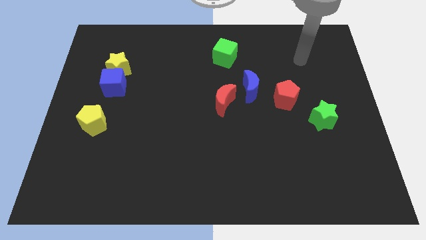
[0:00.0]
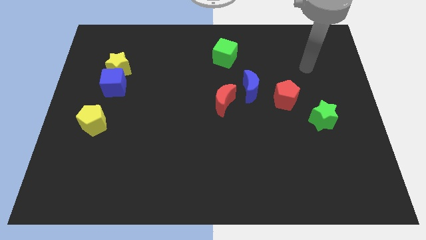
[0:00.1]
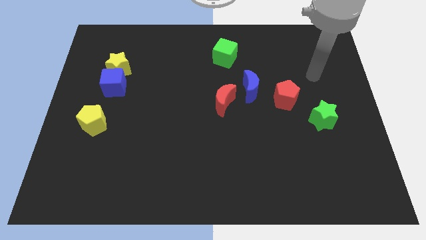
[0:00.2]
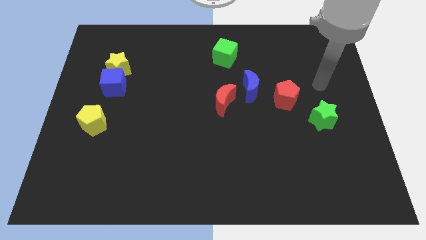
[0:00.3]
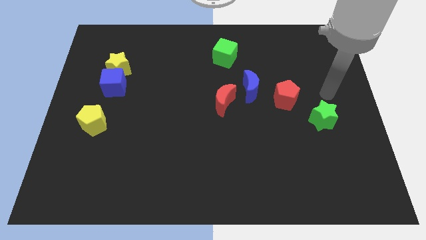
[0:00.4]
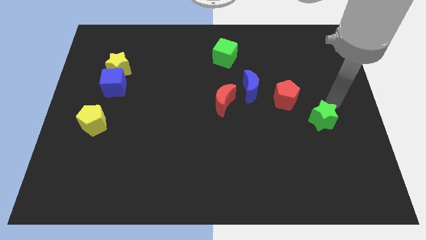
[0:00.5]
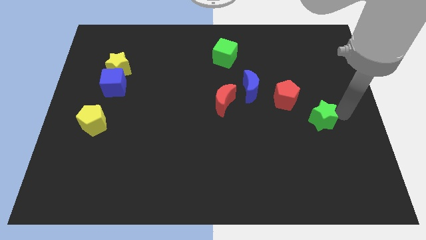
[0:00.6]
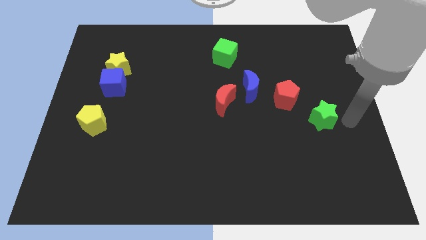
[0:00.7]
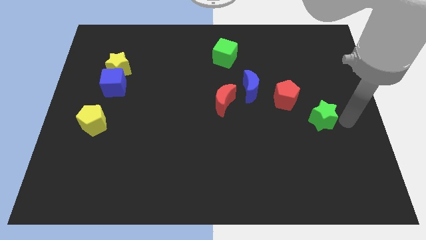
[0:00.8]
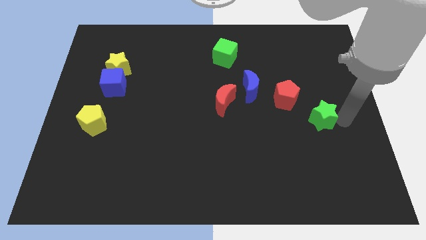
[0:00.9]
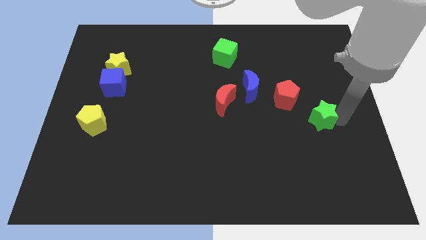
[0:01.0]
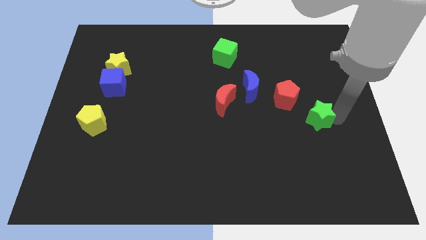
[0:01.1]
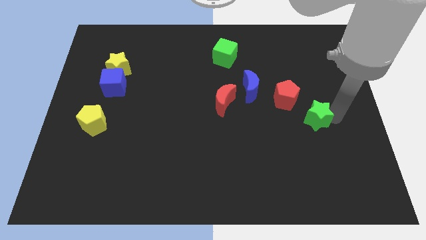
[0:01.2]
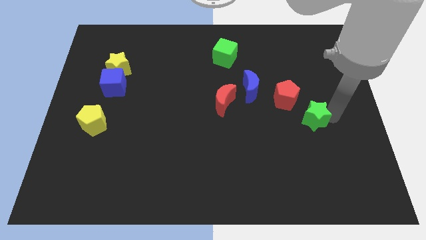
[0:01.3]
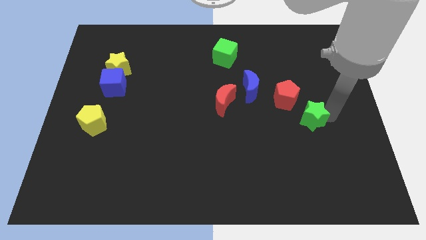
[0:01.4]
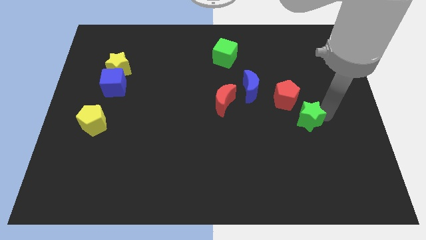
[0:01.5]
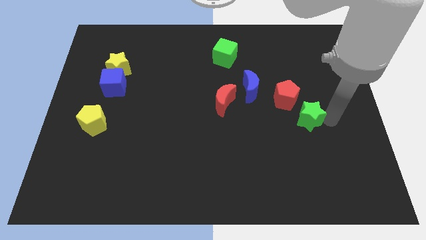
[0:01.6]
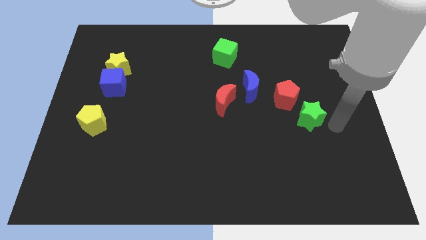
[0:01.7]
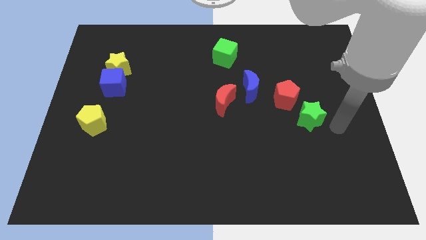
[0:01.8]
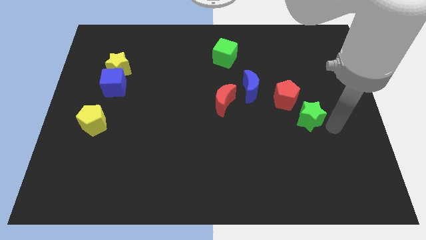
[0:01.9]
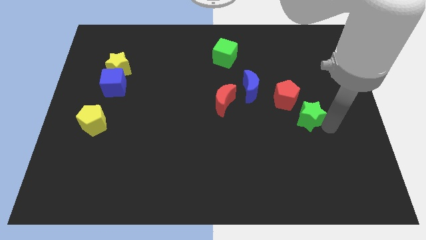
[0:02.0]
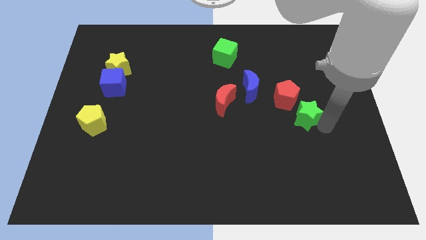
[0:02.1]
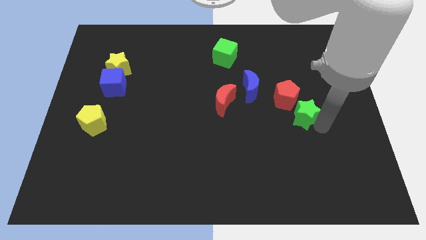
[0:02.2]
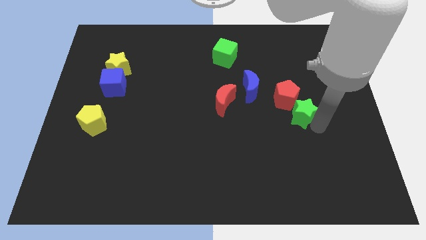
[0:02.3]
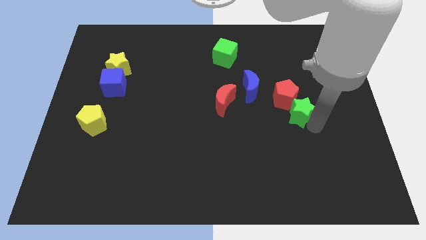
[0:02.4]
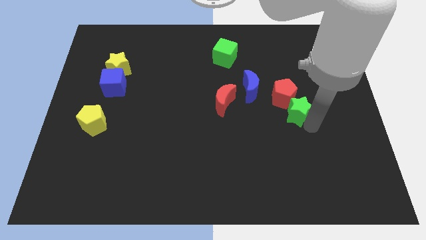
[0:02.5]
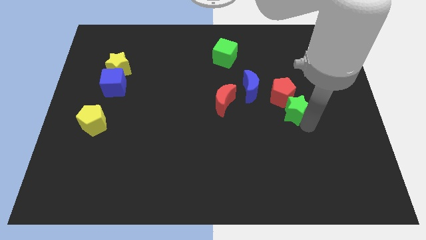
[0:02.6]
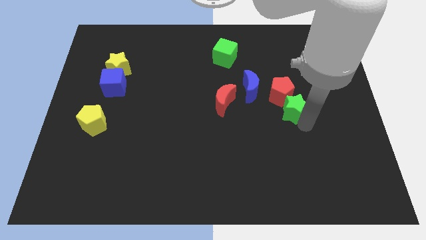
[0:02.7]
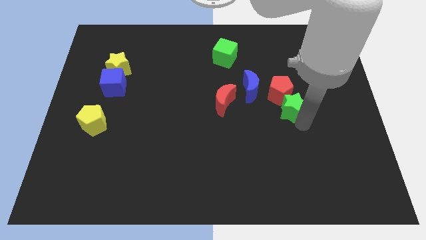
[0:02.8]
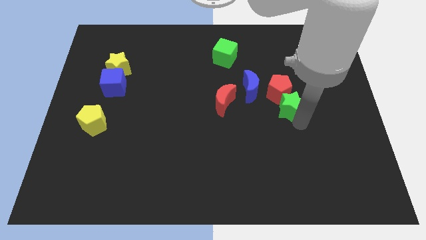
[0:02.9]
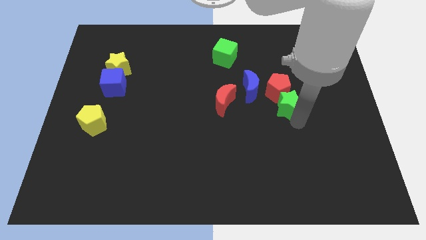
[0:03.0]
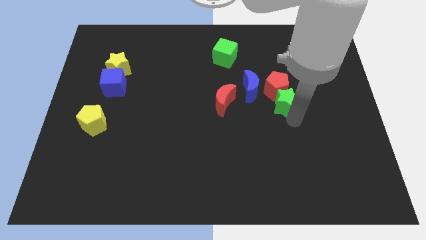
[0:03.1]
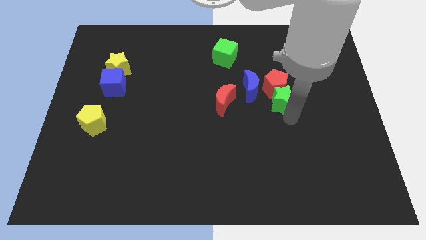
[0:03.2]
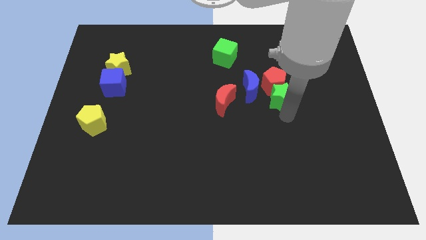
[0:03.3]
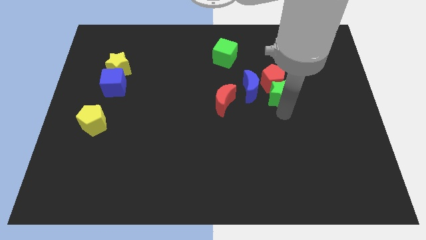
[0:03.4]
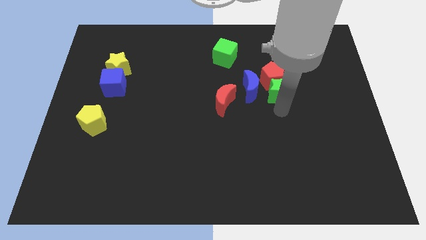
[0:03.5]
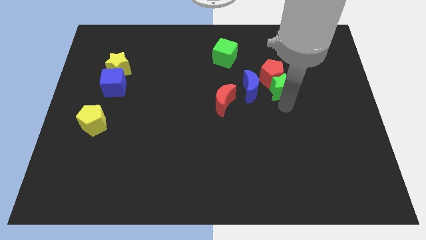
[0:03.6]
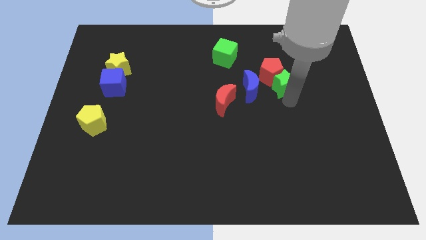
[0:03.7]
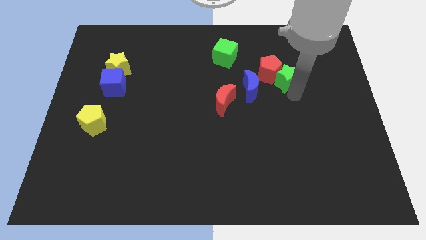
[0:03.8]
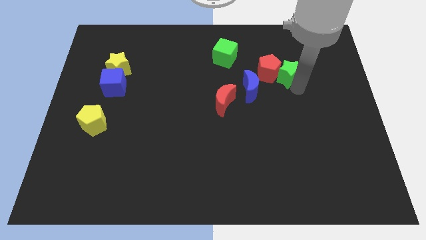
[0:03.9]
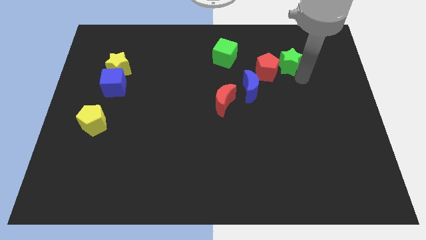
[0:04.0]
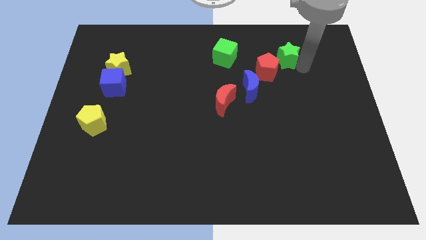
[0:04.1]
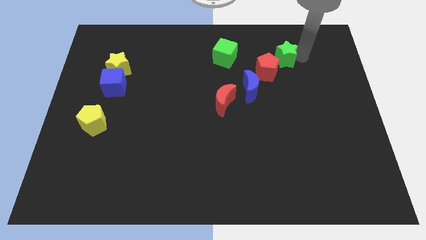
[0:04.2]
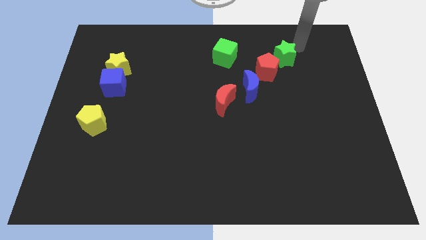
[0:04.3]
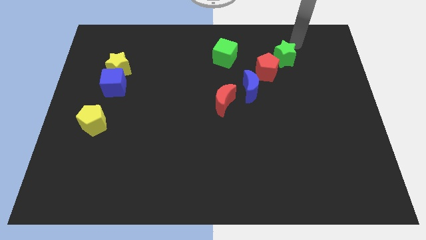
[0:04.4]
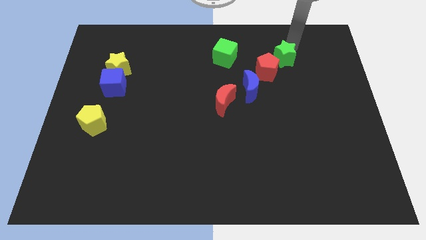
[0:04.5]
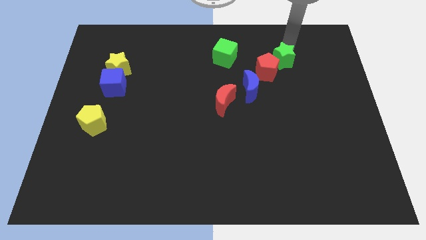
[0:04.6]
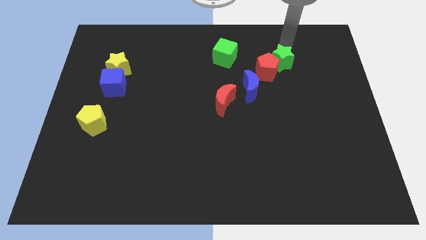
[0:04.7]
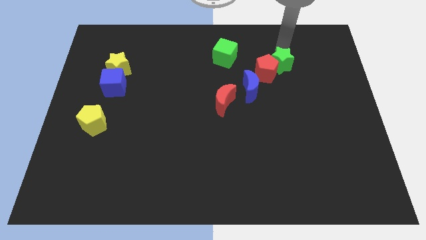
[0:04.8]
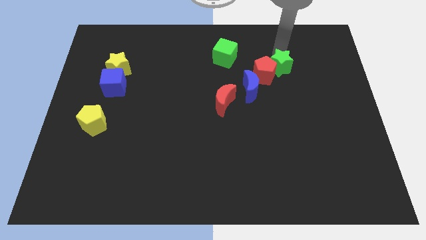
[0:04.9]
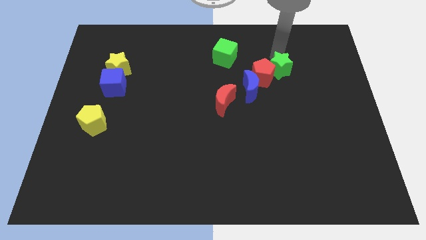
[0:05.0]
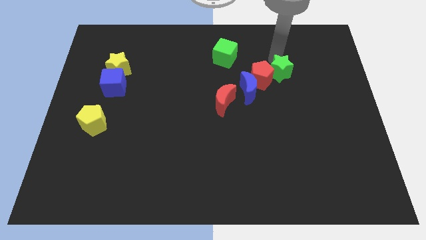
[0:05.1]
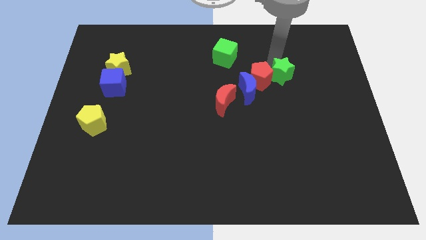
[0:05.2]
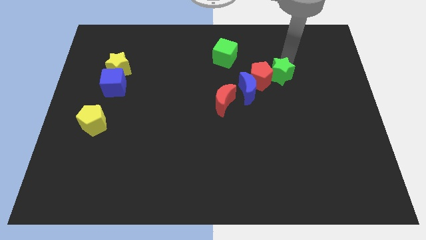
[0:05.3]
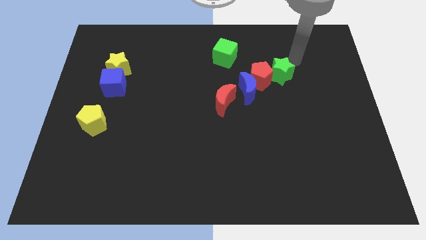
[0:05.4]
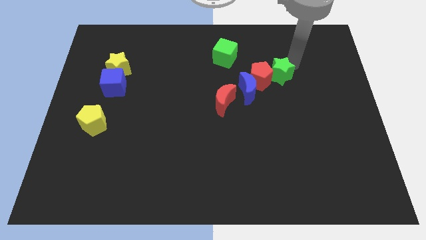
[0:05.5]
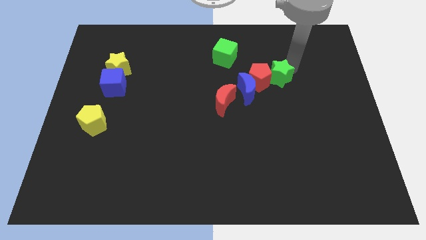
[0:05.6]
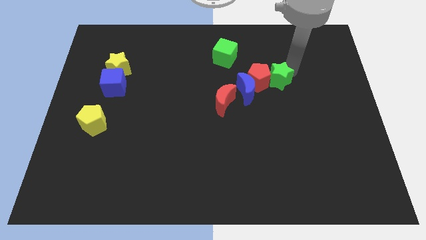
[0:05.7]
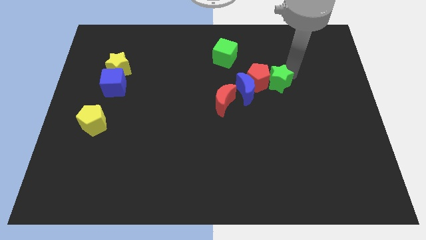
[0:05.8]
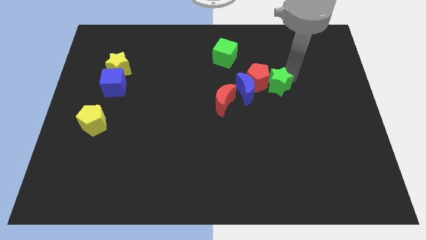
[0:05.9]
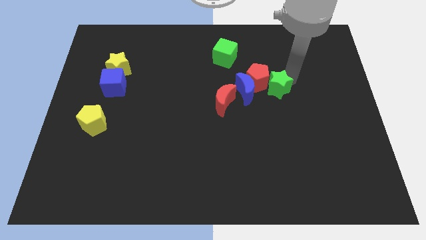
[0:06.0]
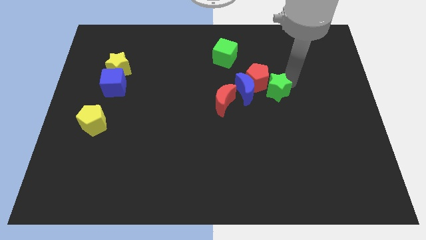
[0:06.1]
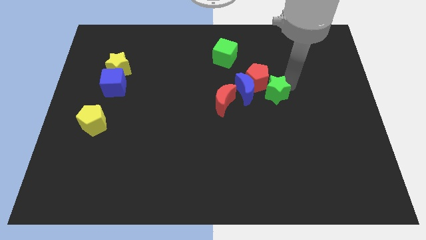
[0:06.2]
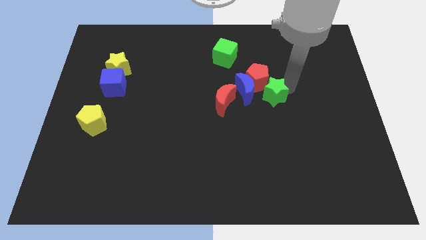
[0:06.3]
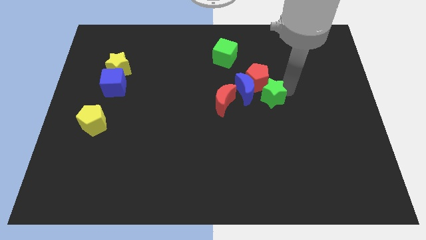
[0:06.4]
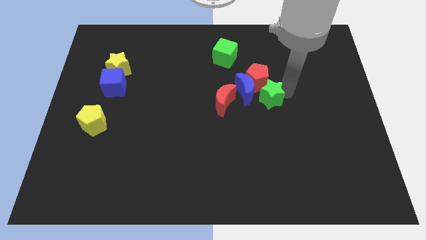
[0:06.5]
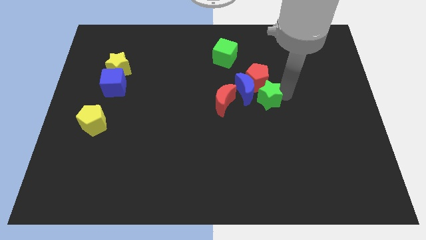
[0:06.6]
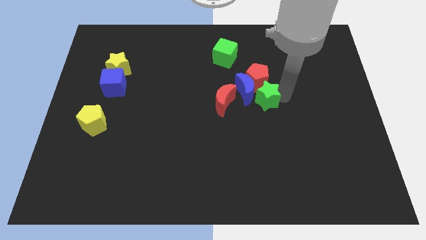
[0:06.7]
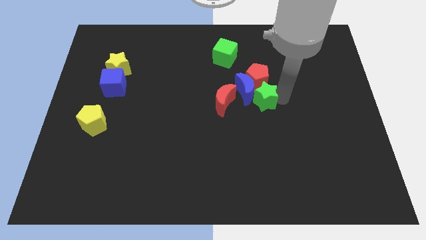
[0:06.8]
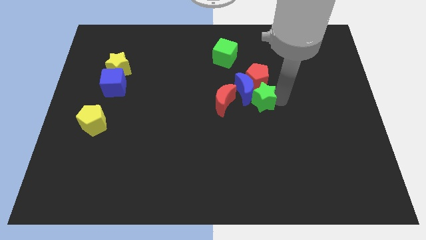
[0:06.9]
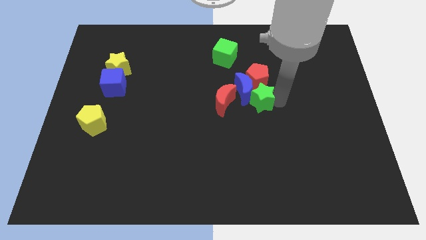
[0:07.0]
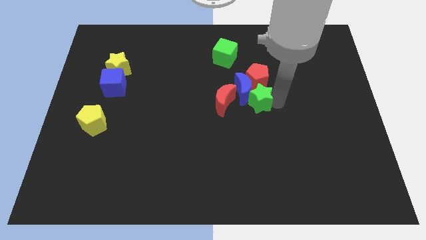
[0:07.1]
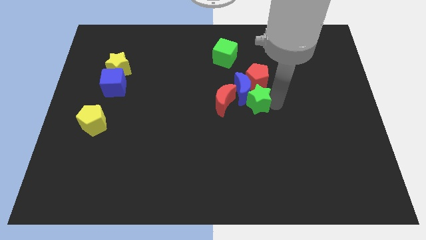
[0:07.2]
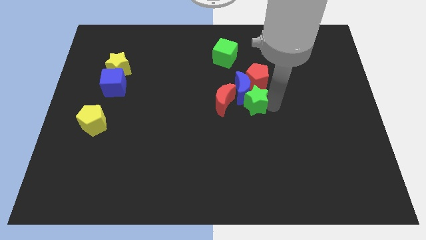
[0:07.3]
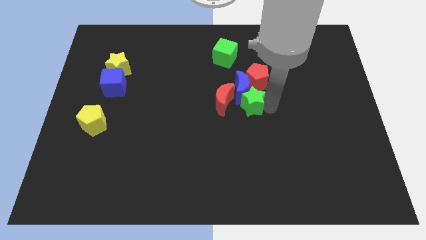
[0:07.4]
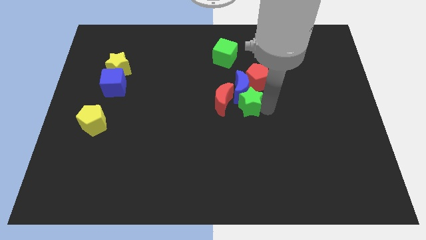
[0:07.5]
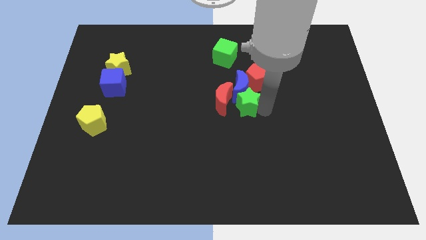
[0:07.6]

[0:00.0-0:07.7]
move the green star to the red moon
